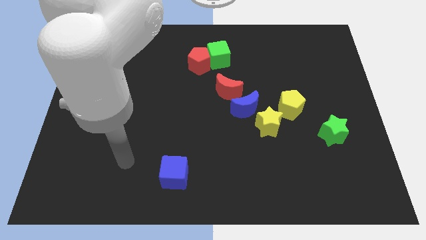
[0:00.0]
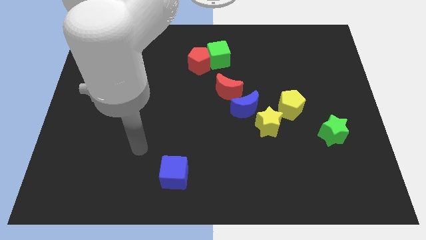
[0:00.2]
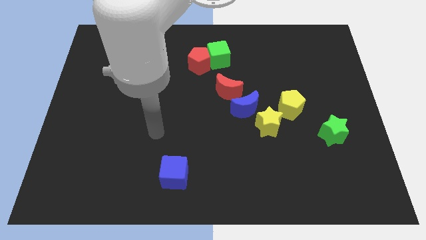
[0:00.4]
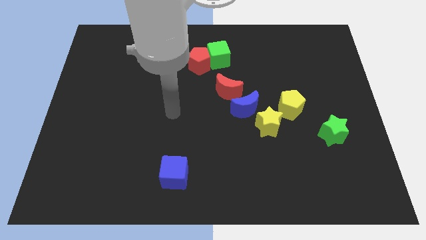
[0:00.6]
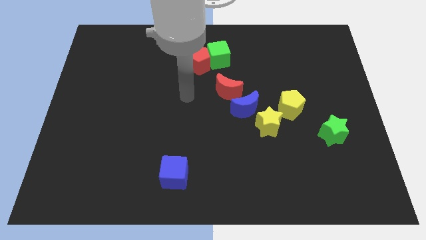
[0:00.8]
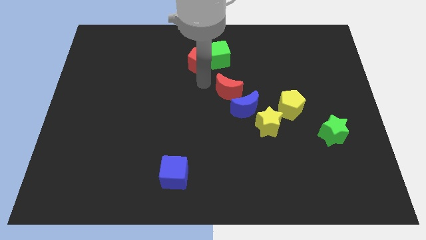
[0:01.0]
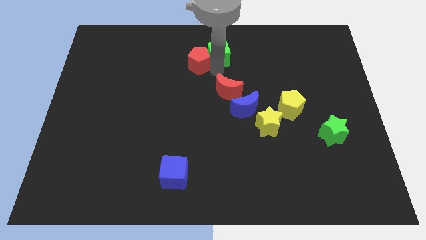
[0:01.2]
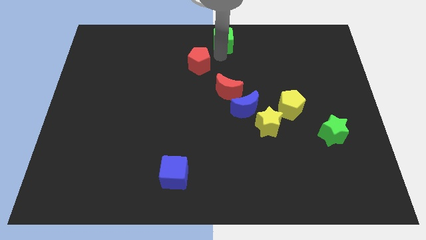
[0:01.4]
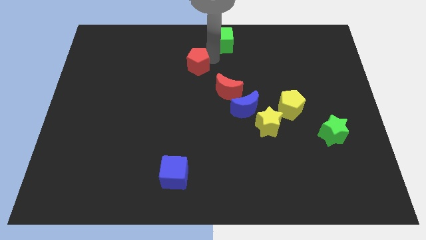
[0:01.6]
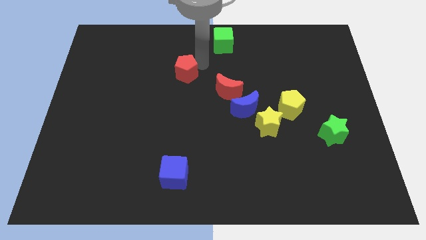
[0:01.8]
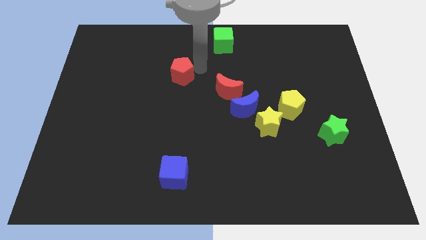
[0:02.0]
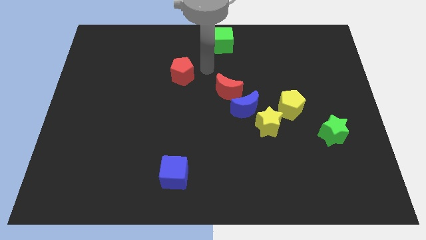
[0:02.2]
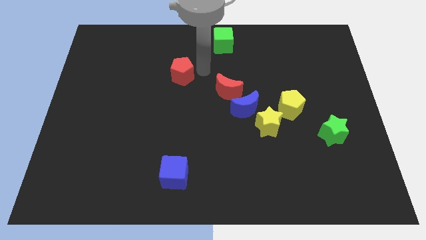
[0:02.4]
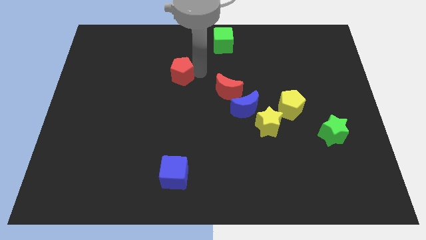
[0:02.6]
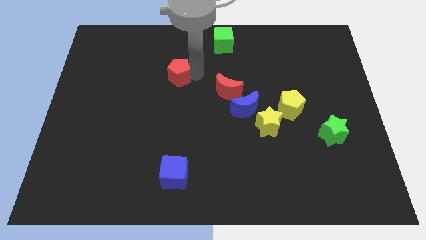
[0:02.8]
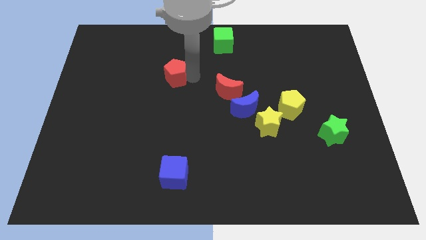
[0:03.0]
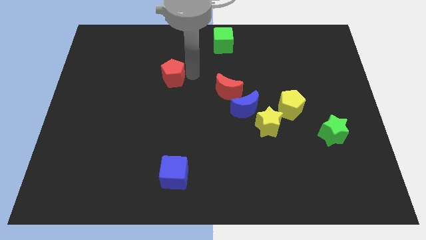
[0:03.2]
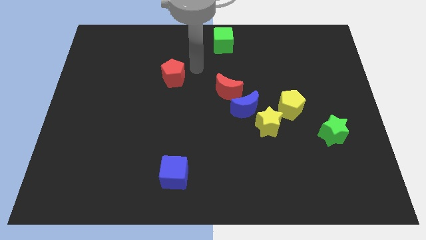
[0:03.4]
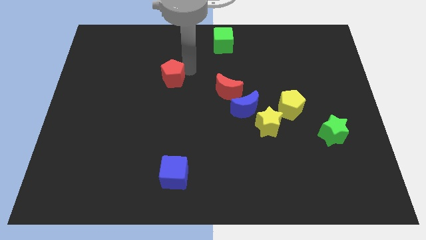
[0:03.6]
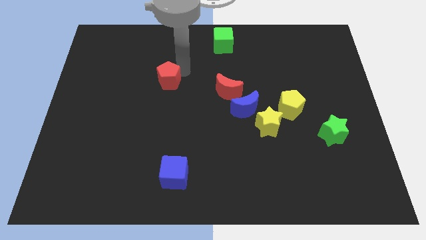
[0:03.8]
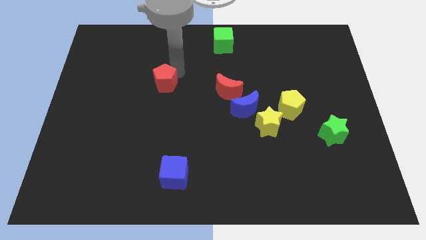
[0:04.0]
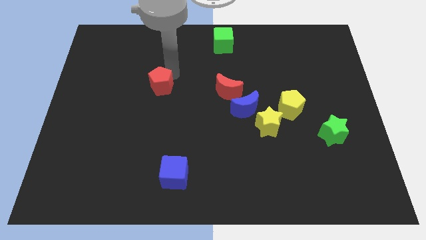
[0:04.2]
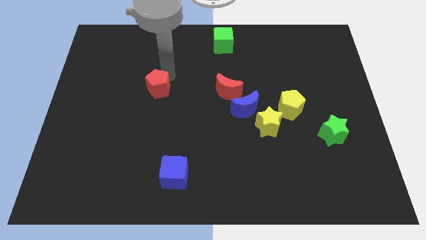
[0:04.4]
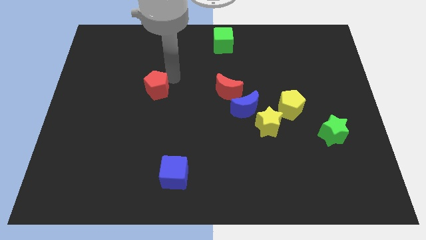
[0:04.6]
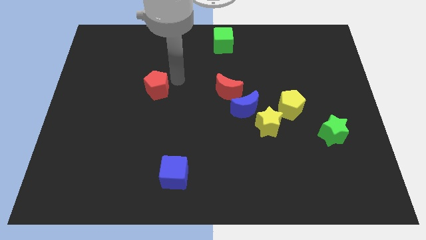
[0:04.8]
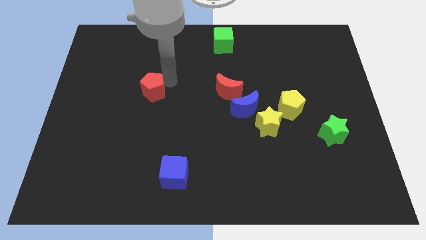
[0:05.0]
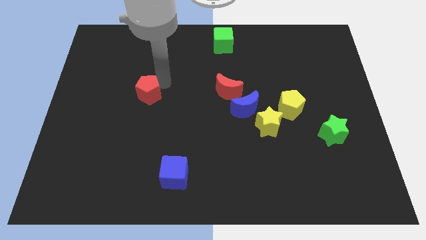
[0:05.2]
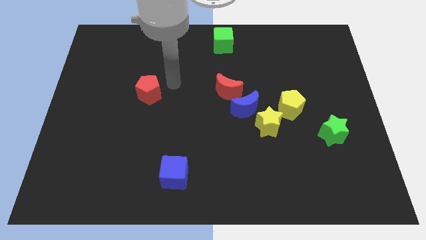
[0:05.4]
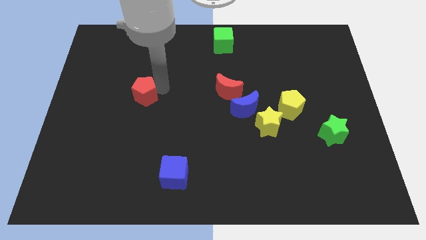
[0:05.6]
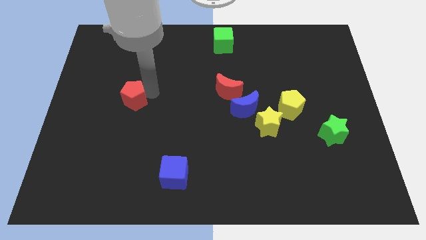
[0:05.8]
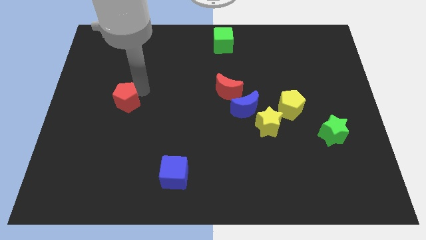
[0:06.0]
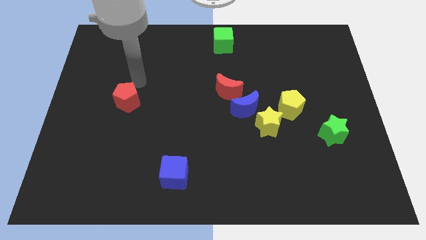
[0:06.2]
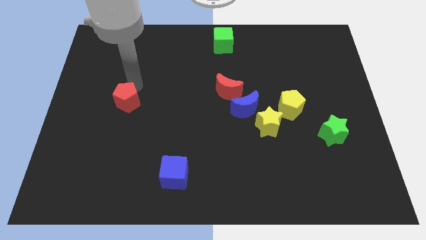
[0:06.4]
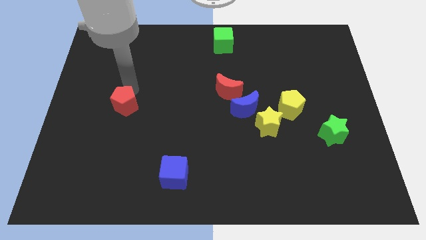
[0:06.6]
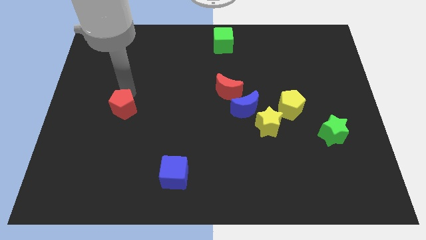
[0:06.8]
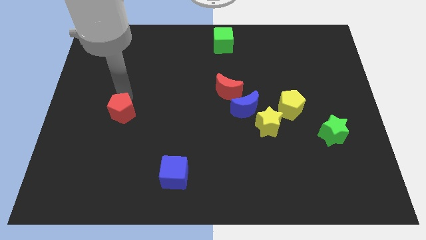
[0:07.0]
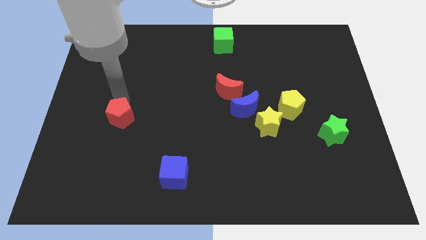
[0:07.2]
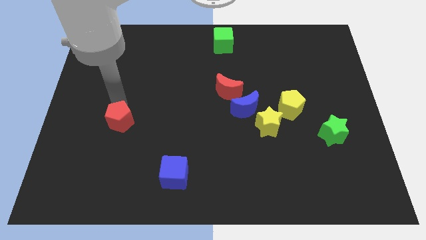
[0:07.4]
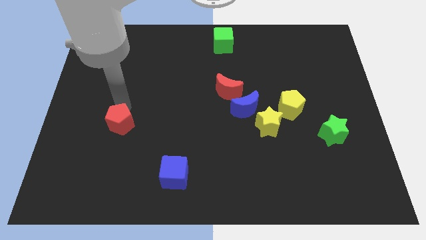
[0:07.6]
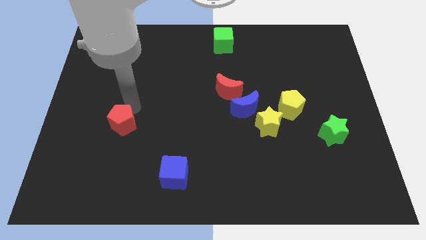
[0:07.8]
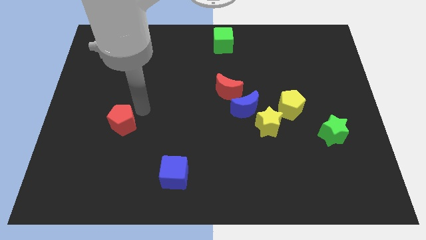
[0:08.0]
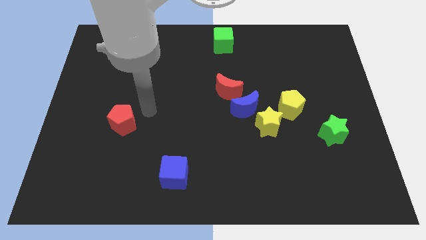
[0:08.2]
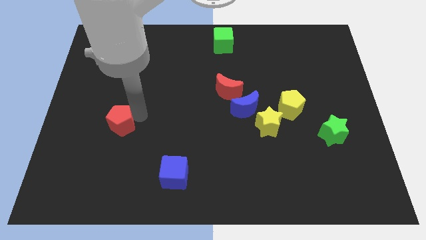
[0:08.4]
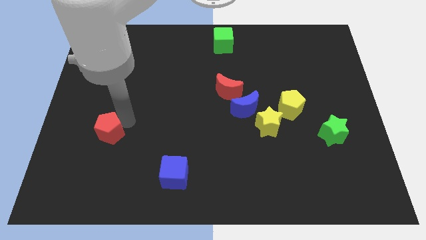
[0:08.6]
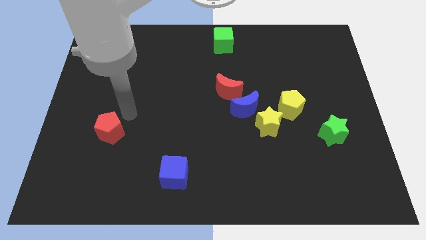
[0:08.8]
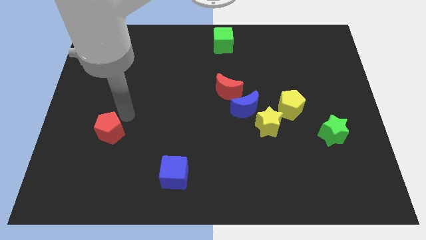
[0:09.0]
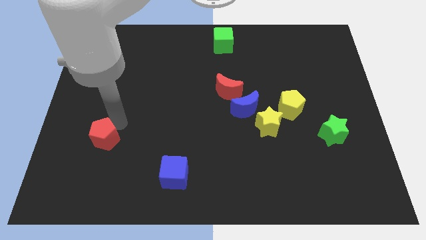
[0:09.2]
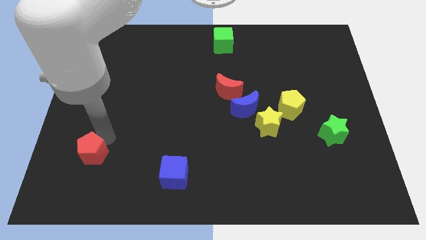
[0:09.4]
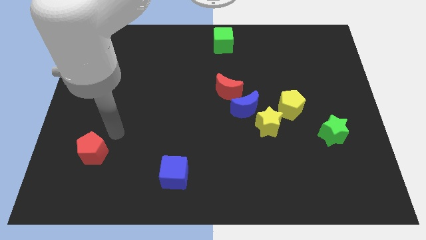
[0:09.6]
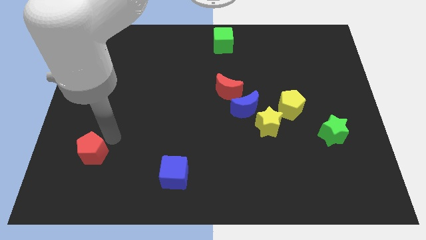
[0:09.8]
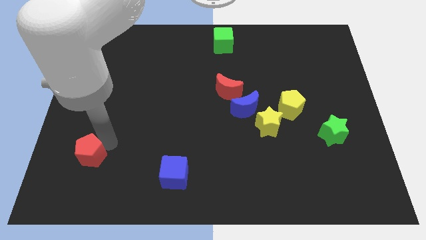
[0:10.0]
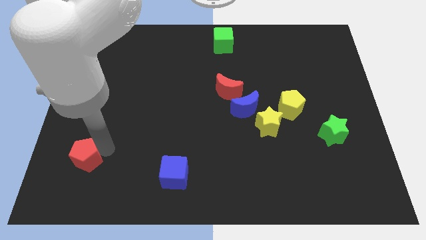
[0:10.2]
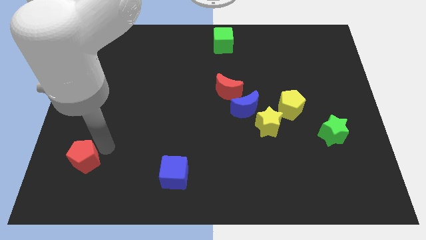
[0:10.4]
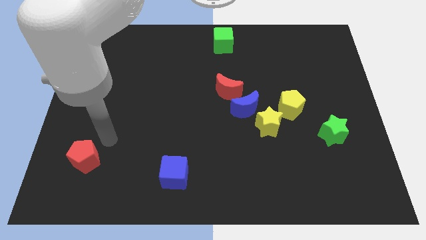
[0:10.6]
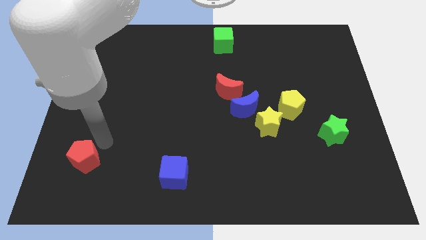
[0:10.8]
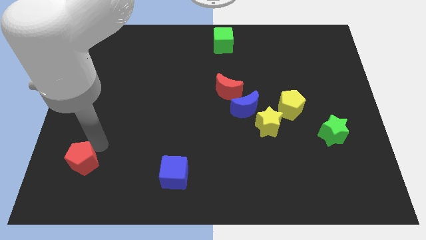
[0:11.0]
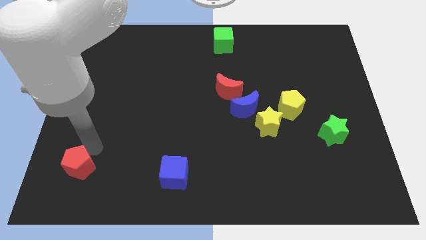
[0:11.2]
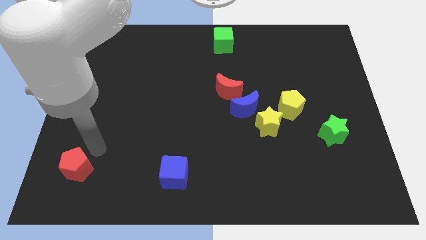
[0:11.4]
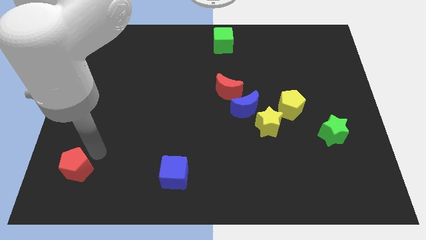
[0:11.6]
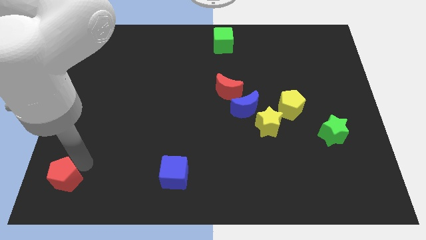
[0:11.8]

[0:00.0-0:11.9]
put the red pentagon to the bottom left corner
